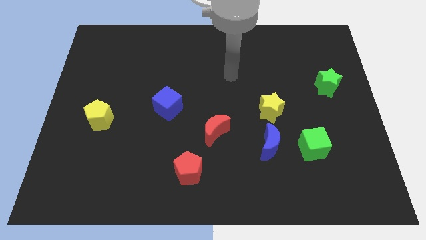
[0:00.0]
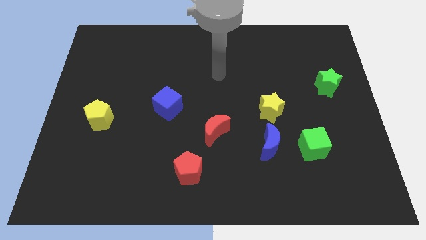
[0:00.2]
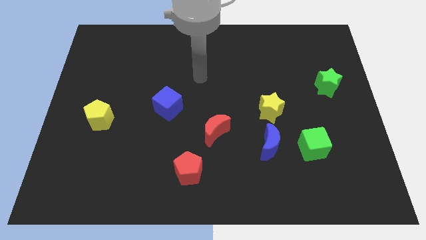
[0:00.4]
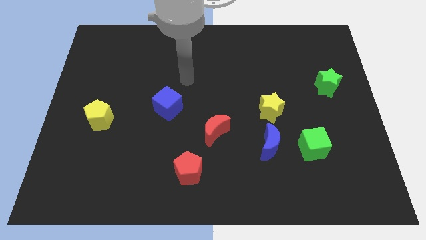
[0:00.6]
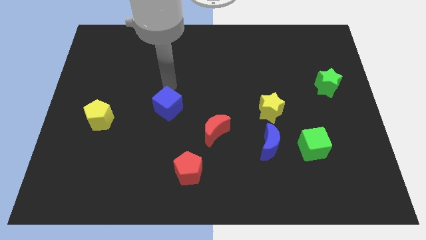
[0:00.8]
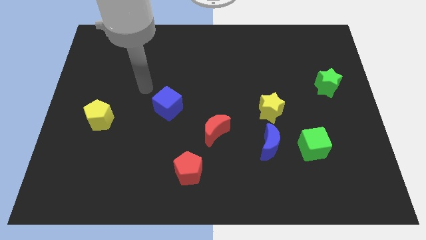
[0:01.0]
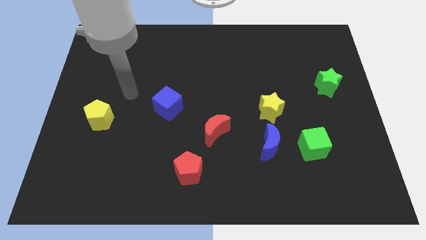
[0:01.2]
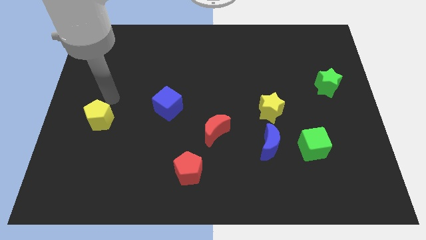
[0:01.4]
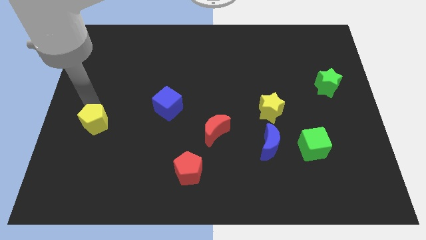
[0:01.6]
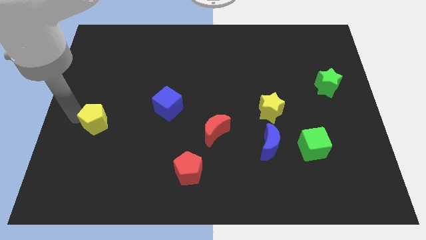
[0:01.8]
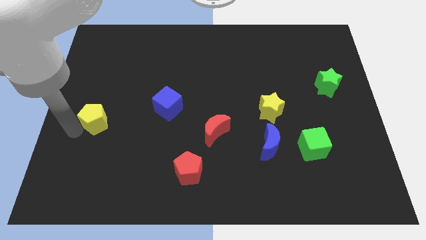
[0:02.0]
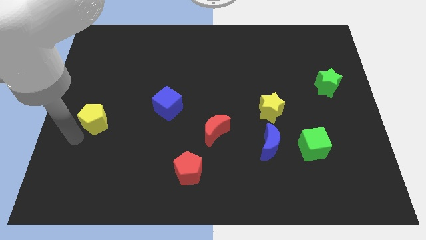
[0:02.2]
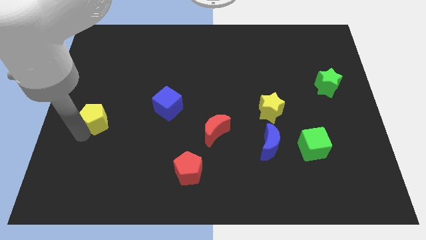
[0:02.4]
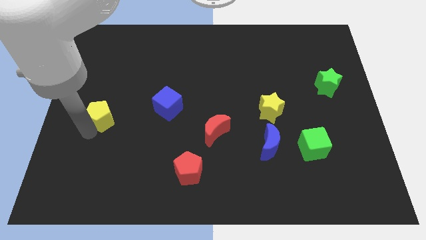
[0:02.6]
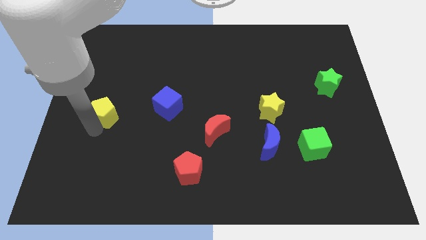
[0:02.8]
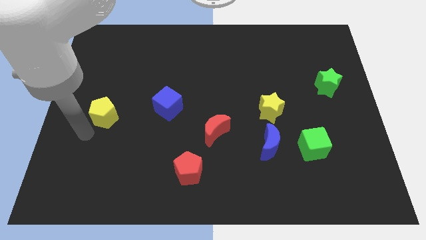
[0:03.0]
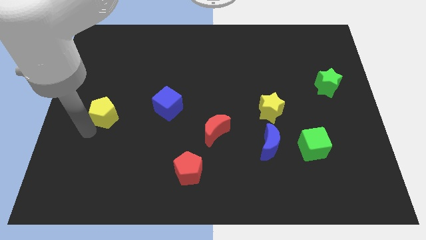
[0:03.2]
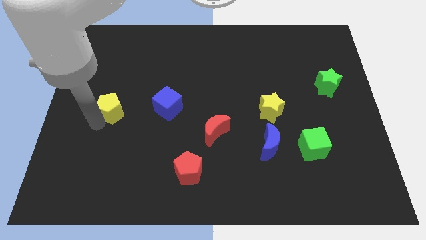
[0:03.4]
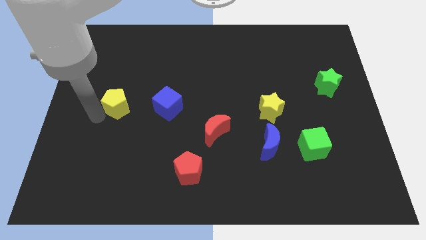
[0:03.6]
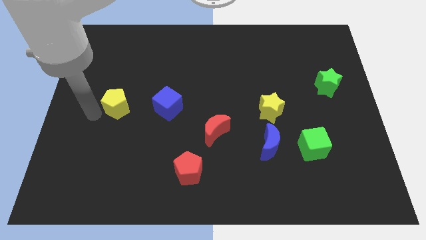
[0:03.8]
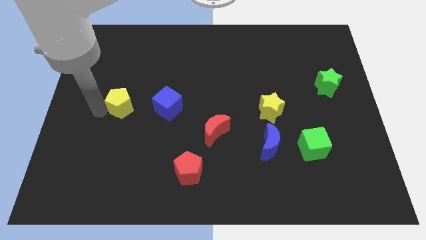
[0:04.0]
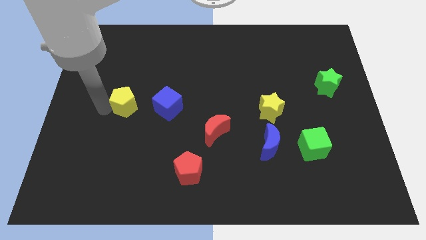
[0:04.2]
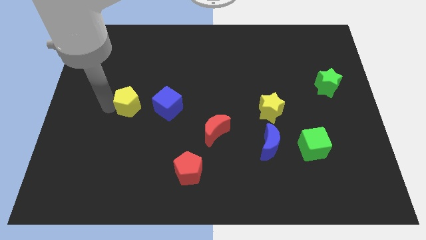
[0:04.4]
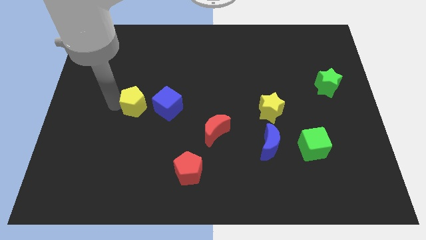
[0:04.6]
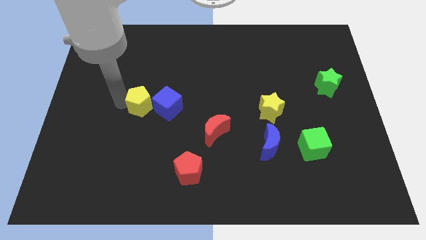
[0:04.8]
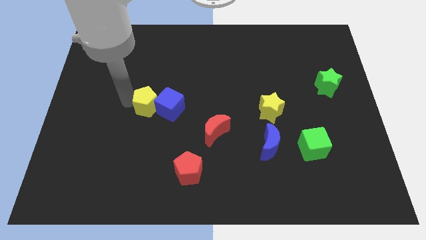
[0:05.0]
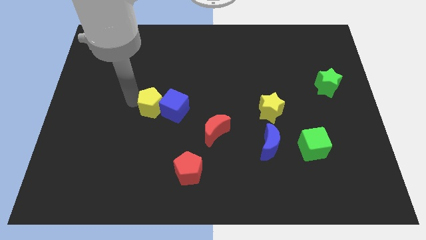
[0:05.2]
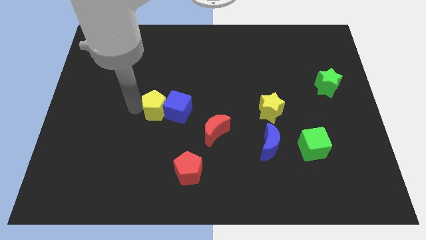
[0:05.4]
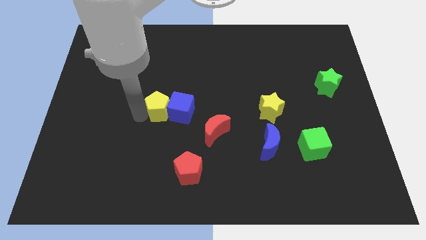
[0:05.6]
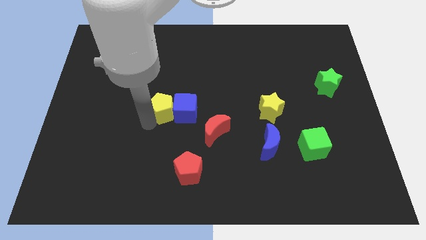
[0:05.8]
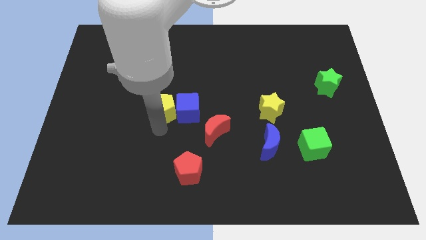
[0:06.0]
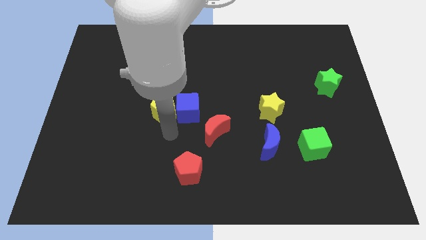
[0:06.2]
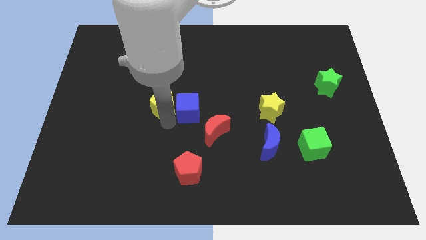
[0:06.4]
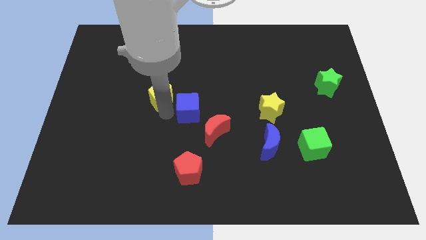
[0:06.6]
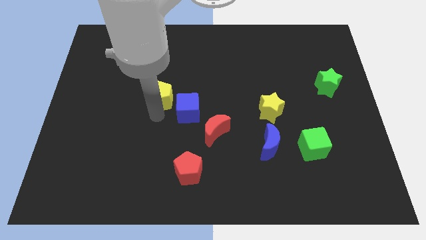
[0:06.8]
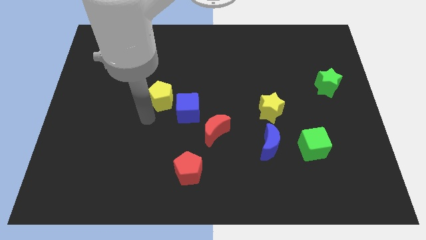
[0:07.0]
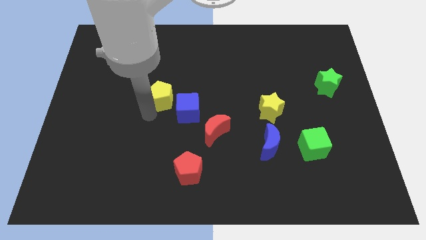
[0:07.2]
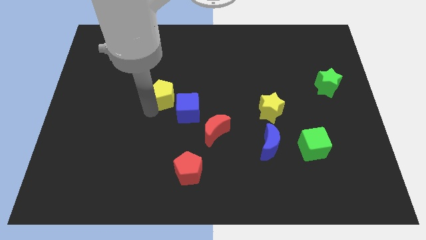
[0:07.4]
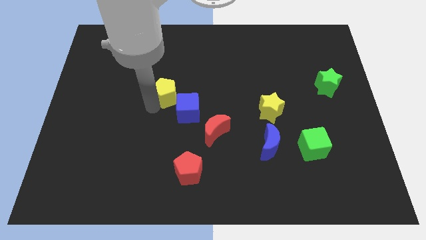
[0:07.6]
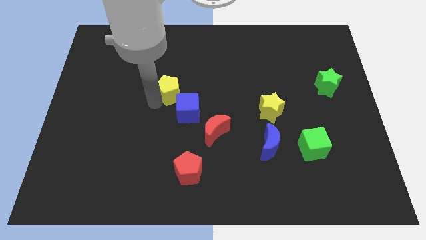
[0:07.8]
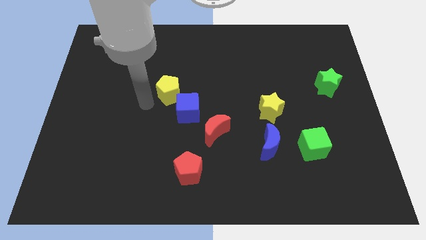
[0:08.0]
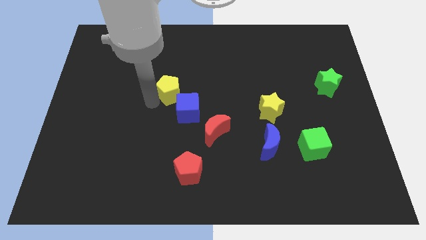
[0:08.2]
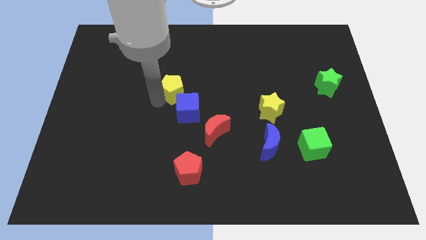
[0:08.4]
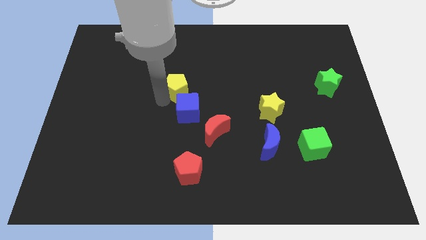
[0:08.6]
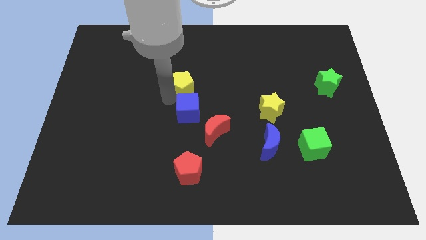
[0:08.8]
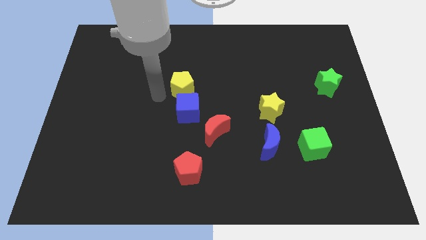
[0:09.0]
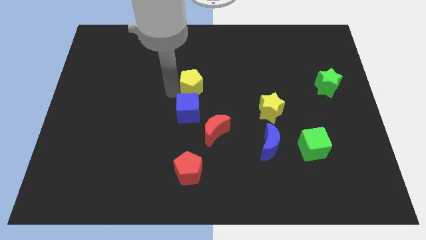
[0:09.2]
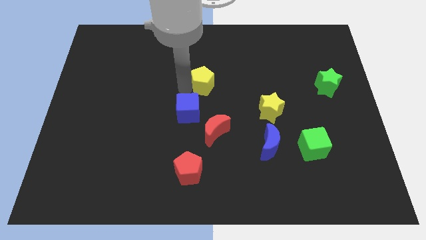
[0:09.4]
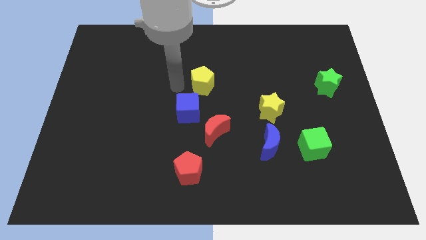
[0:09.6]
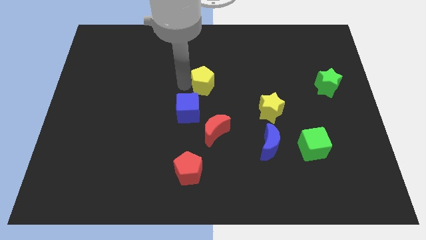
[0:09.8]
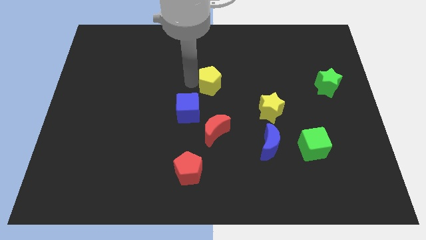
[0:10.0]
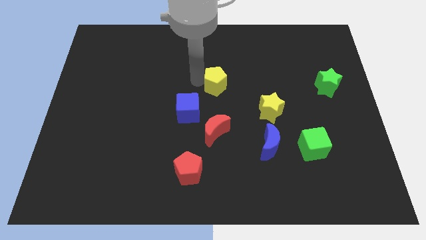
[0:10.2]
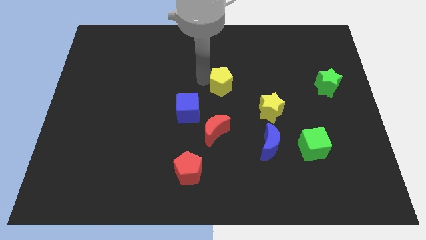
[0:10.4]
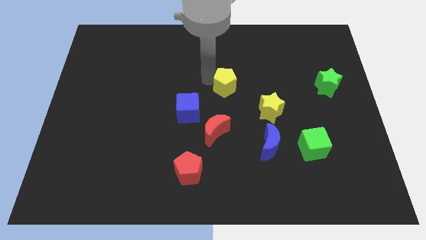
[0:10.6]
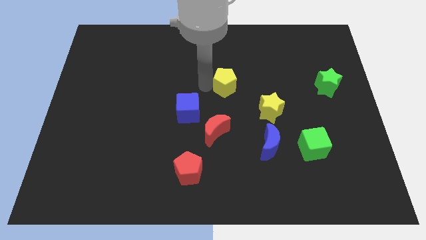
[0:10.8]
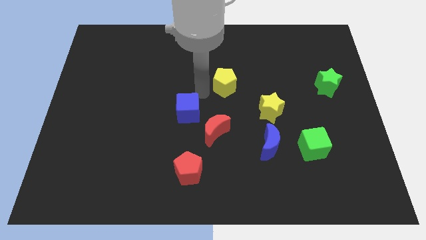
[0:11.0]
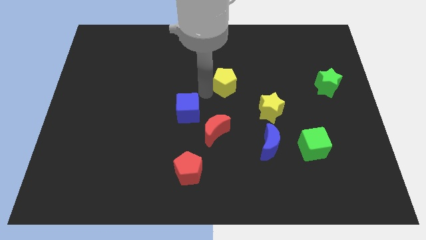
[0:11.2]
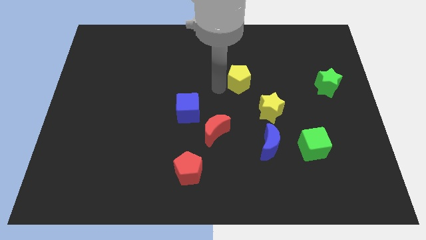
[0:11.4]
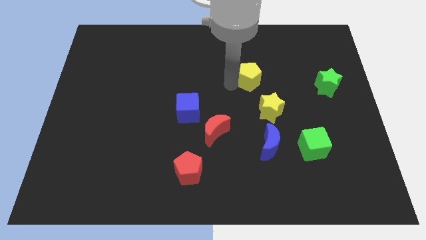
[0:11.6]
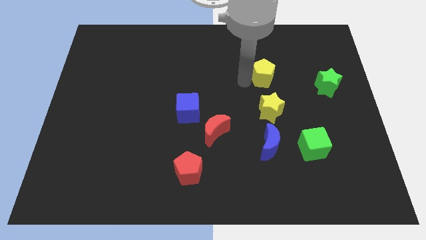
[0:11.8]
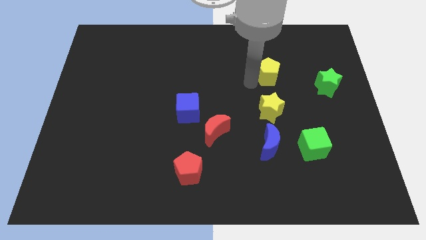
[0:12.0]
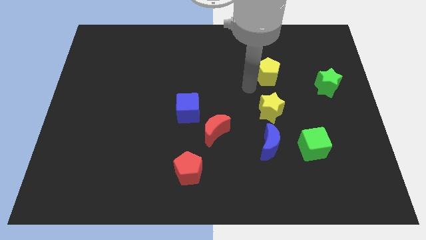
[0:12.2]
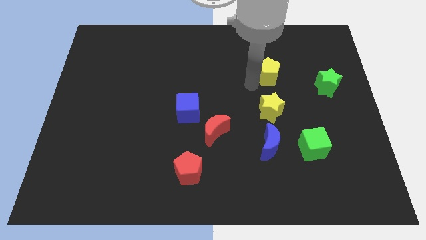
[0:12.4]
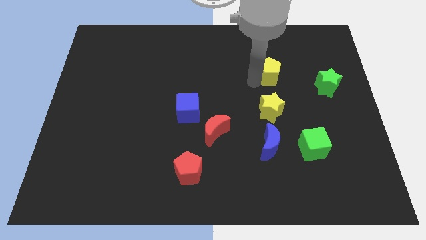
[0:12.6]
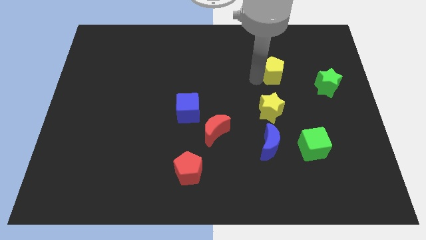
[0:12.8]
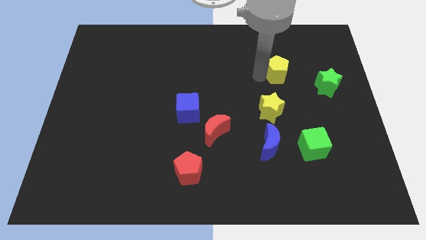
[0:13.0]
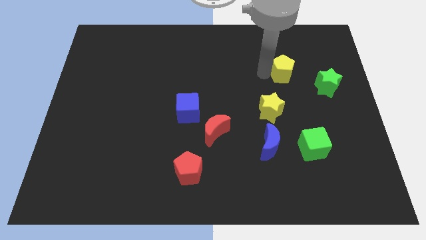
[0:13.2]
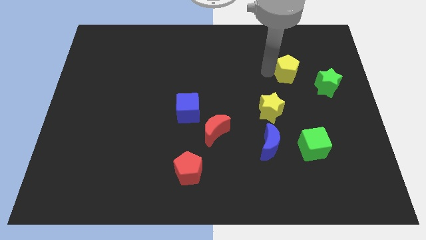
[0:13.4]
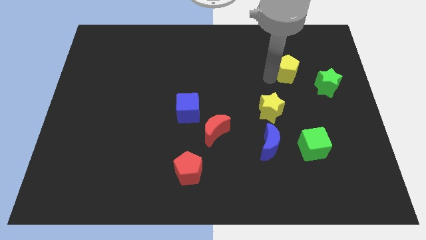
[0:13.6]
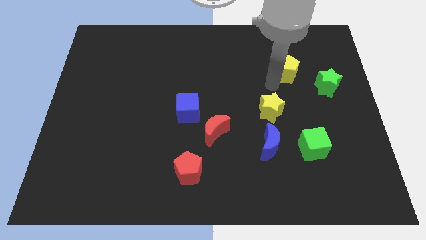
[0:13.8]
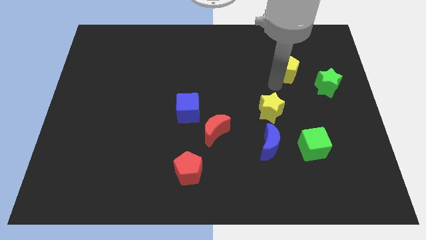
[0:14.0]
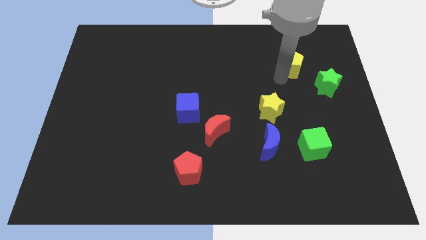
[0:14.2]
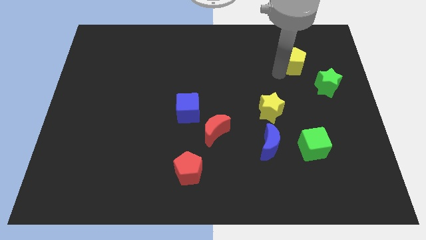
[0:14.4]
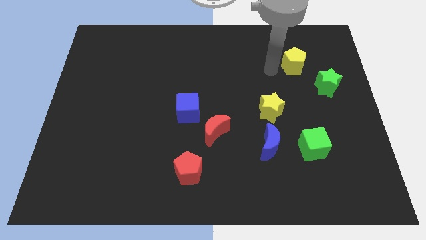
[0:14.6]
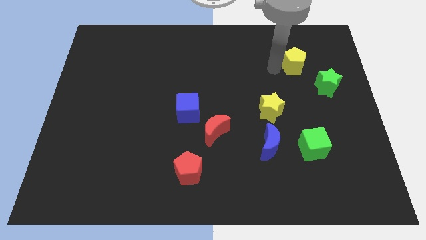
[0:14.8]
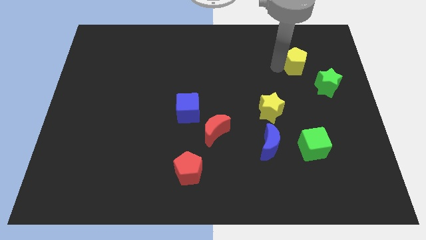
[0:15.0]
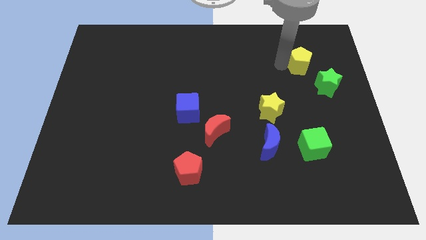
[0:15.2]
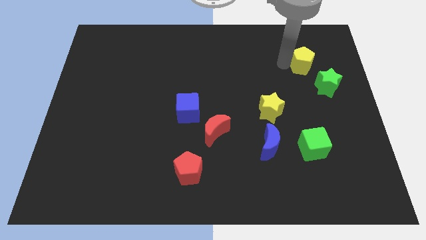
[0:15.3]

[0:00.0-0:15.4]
slide the yellow pentagon to the top side of the green star

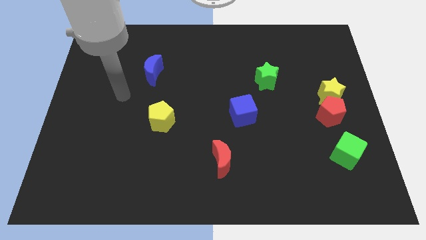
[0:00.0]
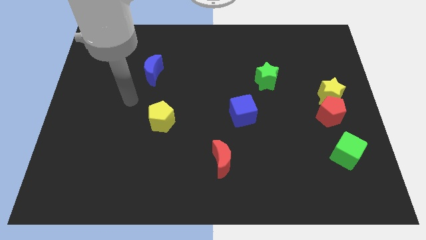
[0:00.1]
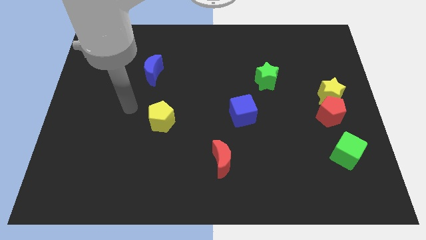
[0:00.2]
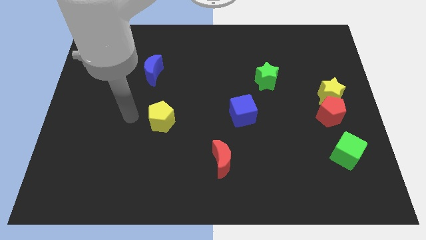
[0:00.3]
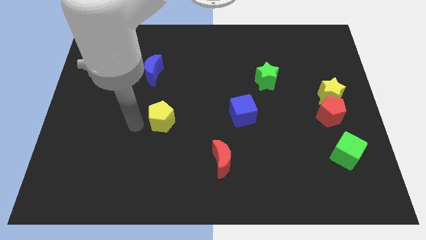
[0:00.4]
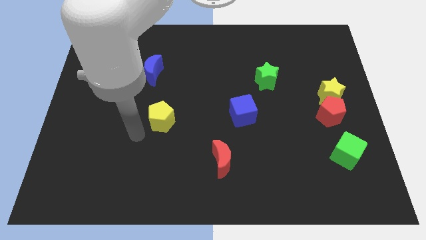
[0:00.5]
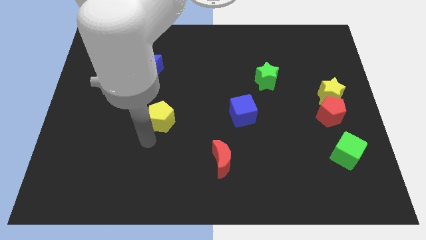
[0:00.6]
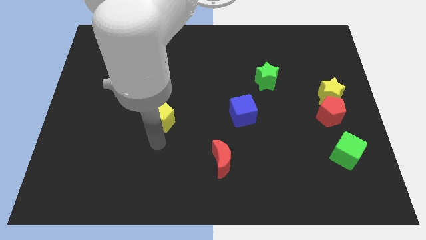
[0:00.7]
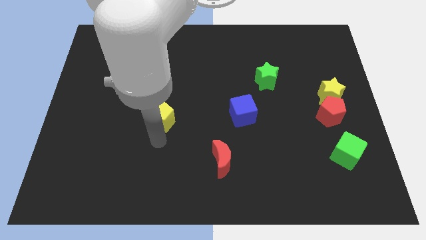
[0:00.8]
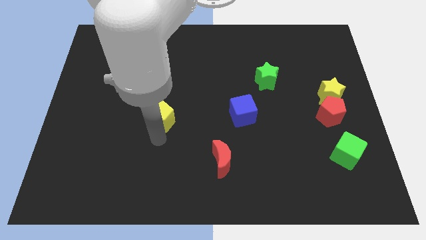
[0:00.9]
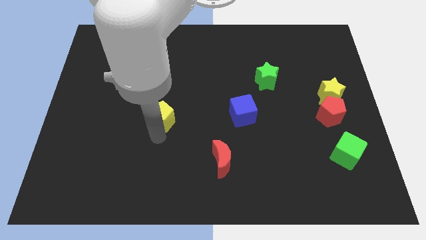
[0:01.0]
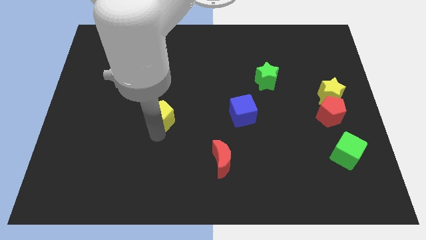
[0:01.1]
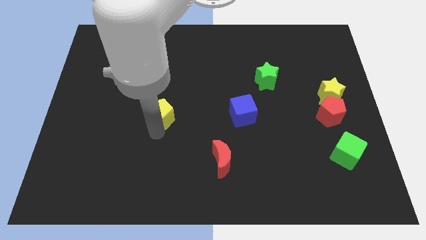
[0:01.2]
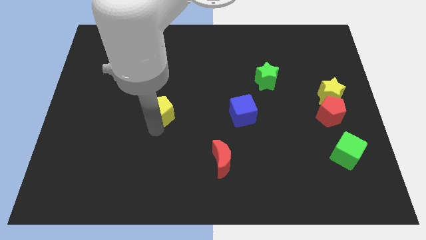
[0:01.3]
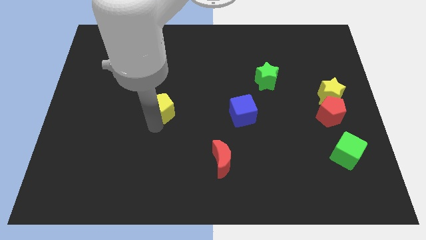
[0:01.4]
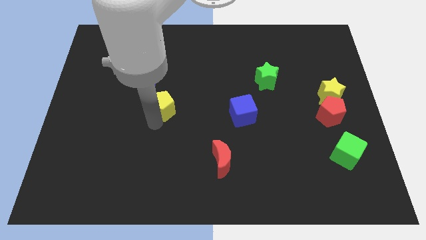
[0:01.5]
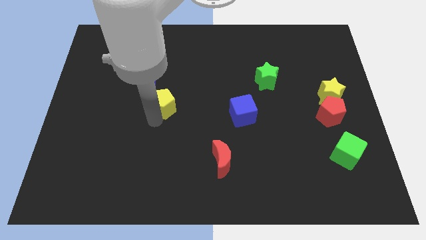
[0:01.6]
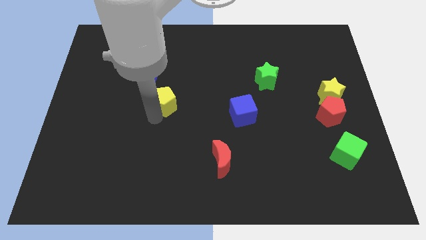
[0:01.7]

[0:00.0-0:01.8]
slide the yellow pentagon diagonally down and to the right of the blue moon
